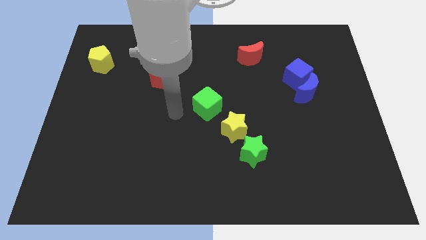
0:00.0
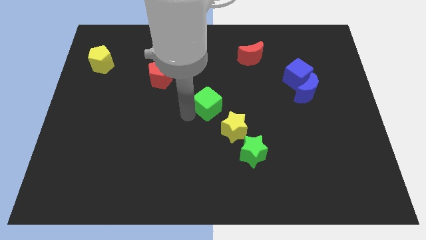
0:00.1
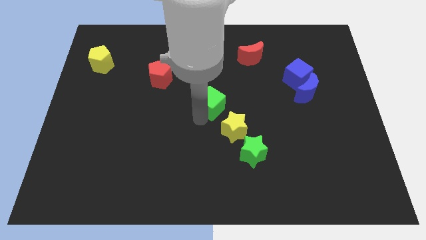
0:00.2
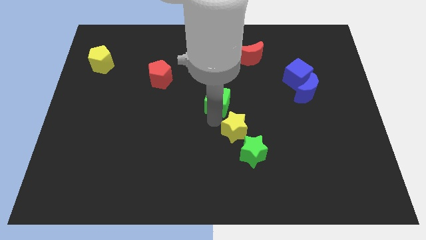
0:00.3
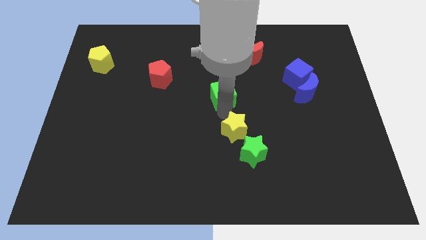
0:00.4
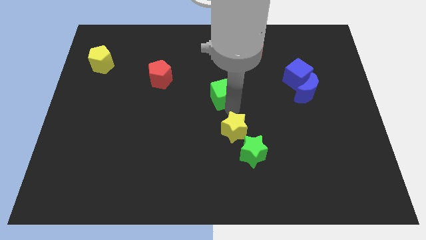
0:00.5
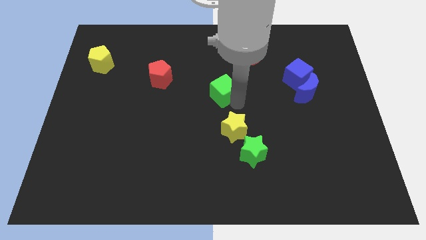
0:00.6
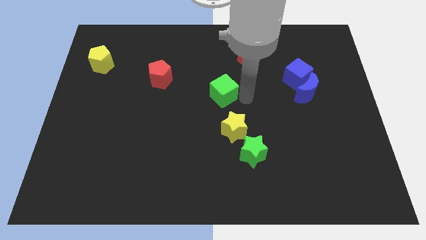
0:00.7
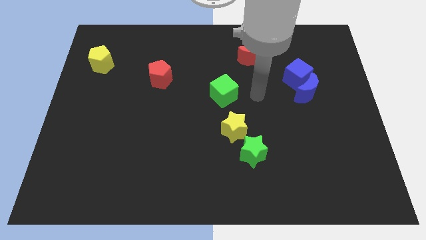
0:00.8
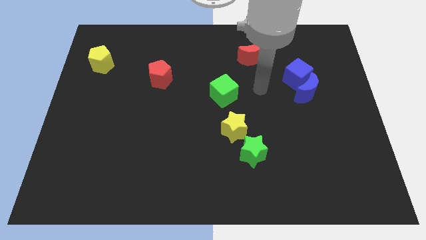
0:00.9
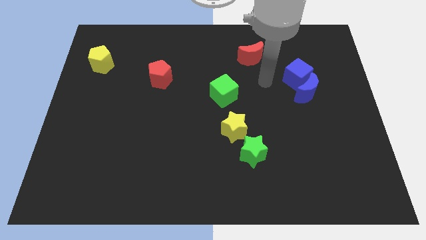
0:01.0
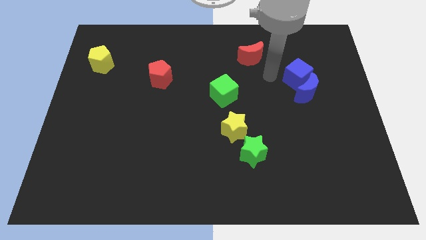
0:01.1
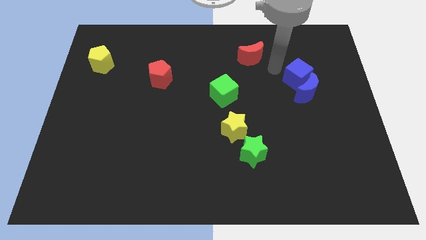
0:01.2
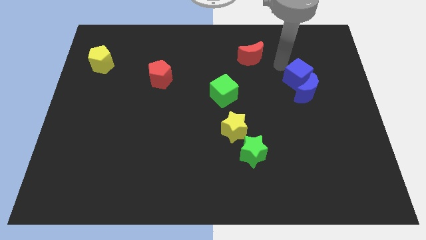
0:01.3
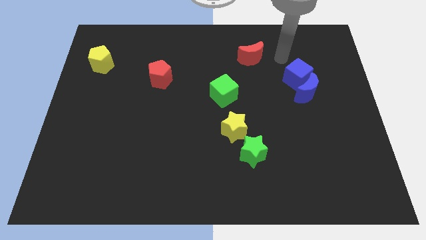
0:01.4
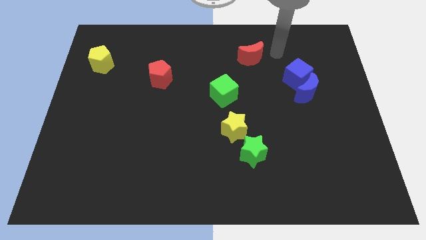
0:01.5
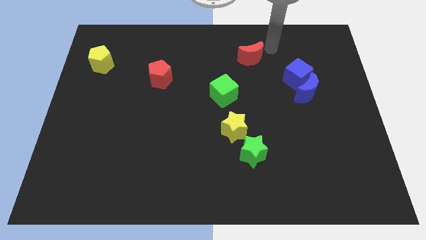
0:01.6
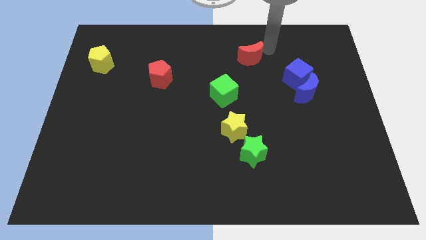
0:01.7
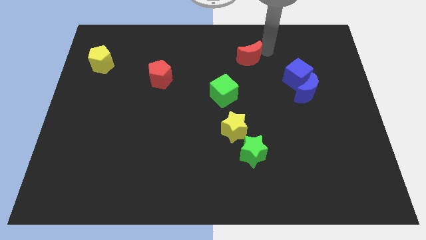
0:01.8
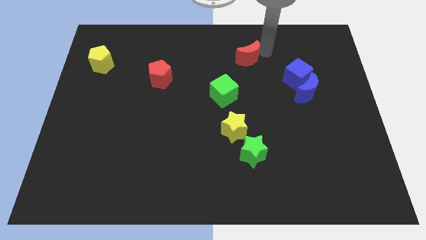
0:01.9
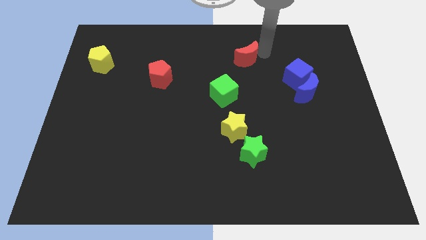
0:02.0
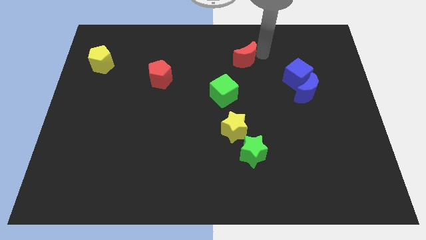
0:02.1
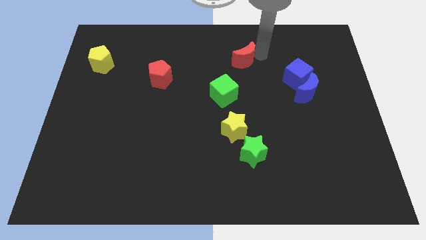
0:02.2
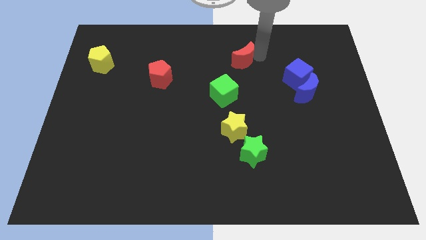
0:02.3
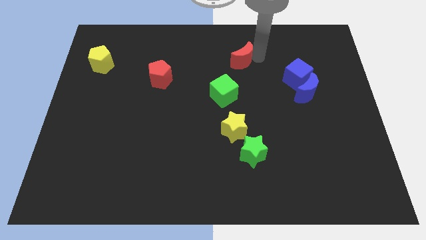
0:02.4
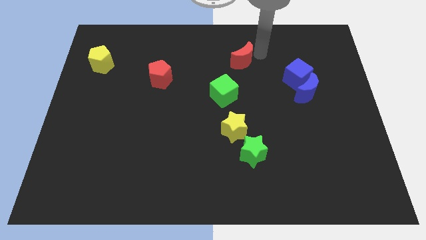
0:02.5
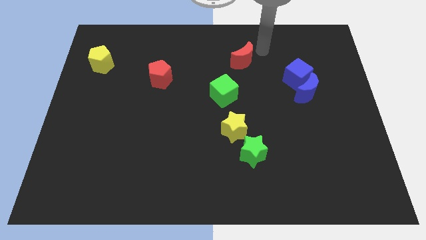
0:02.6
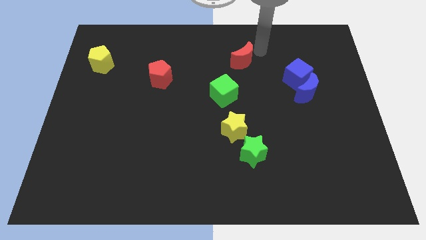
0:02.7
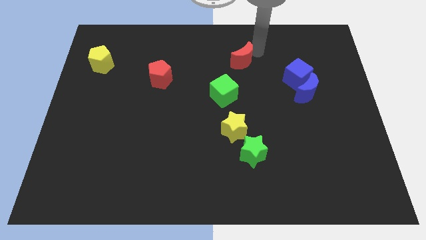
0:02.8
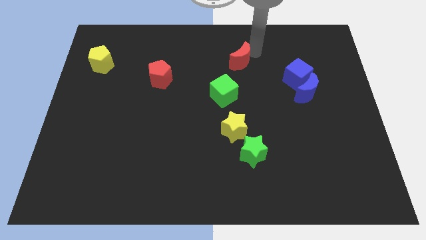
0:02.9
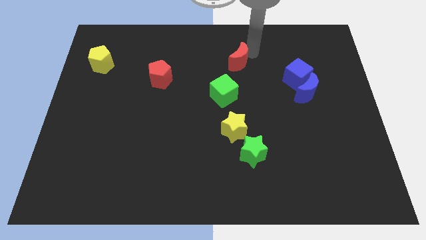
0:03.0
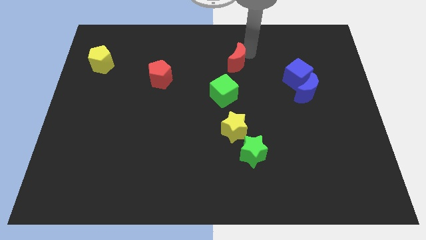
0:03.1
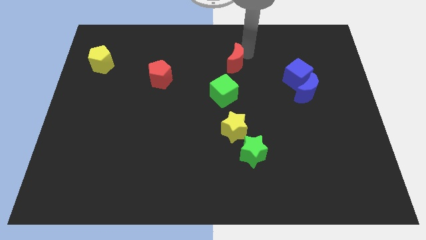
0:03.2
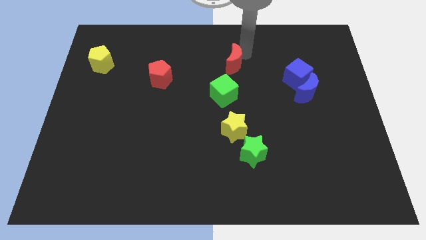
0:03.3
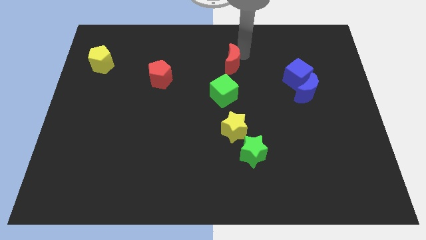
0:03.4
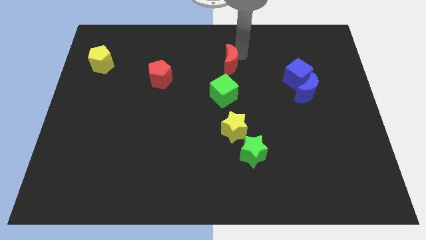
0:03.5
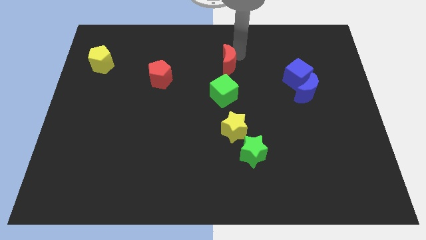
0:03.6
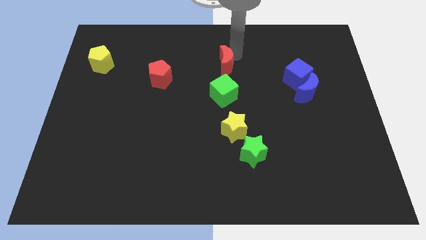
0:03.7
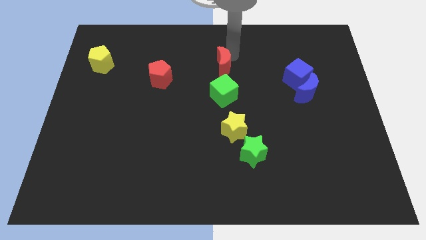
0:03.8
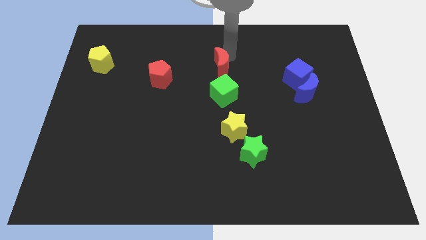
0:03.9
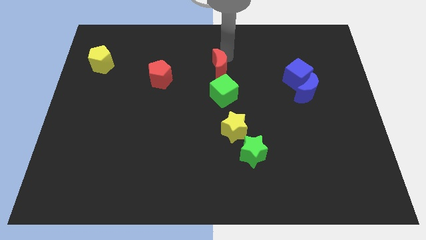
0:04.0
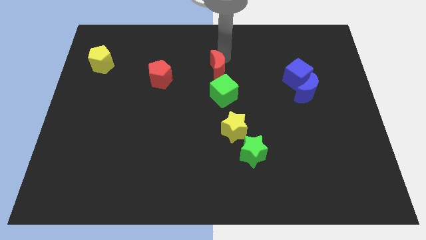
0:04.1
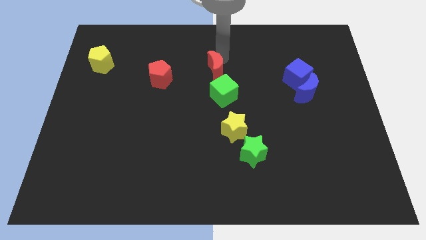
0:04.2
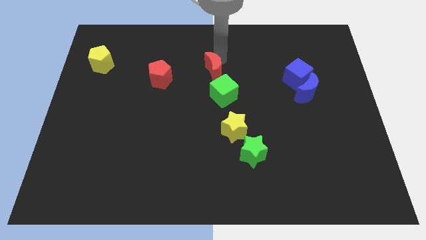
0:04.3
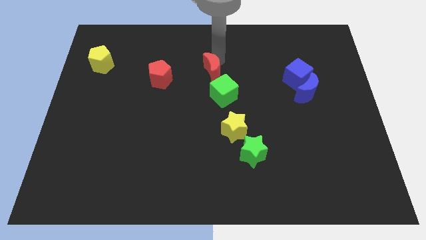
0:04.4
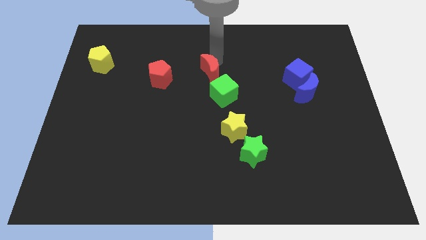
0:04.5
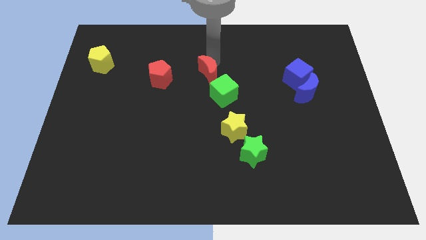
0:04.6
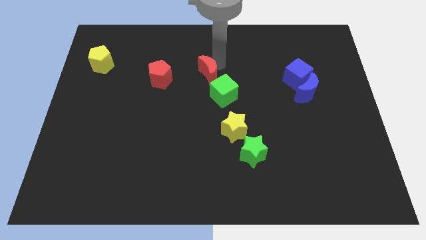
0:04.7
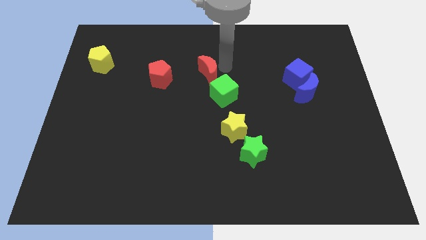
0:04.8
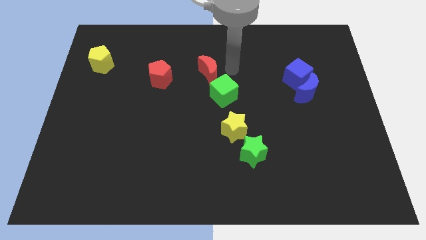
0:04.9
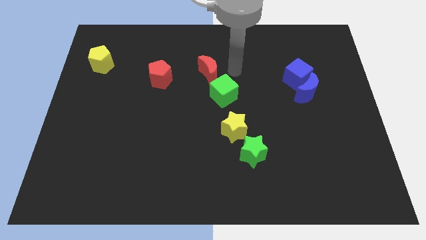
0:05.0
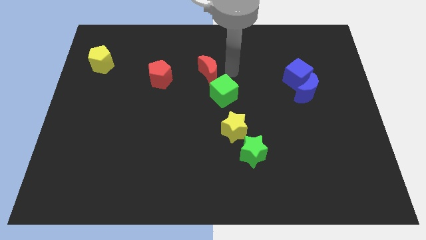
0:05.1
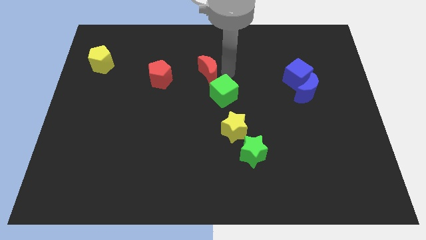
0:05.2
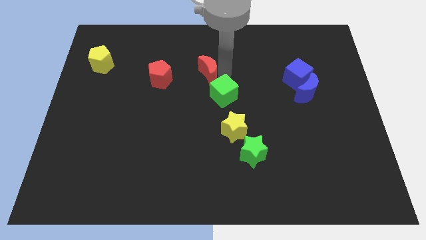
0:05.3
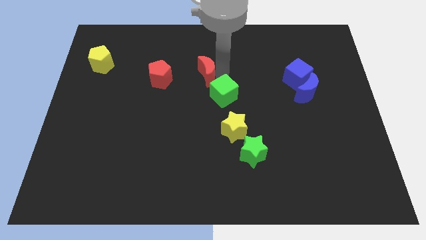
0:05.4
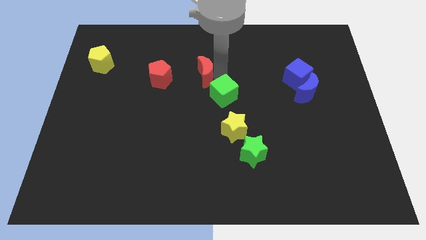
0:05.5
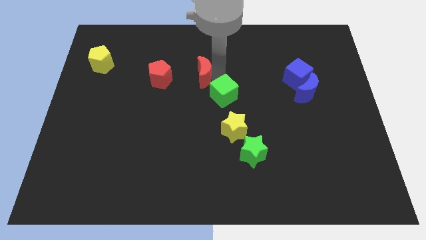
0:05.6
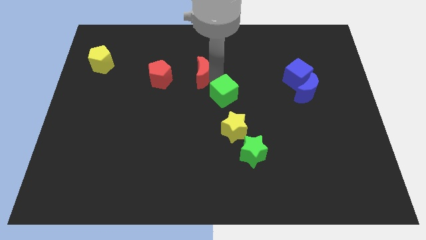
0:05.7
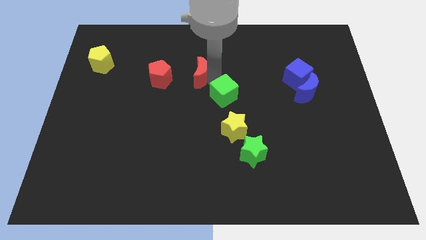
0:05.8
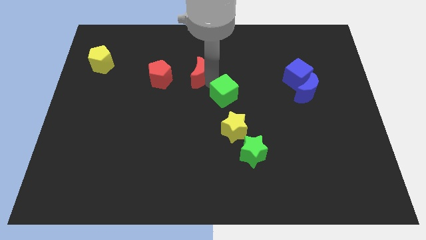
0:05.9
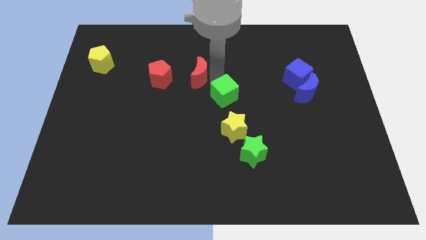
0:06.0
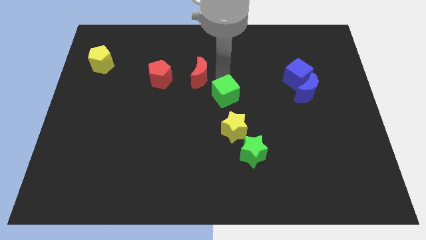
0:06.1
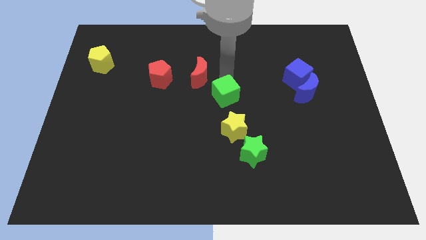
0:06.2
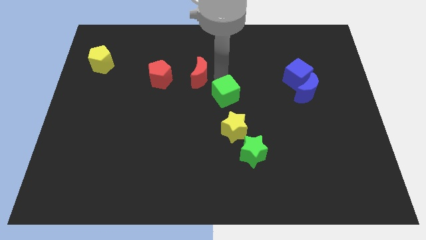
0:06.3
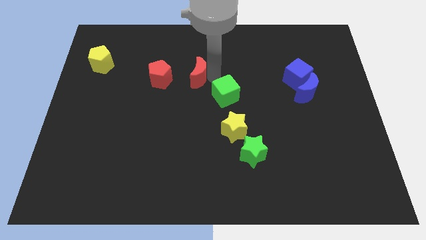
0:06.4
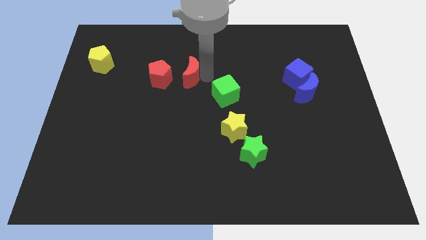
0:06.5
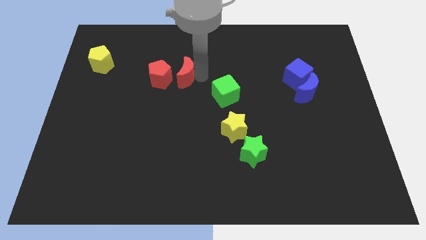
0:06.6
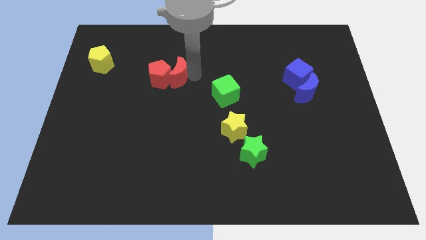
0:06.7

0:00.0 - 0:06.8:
put the red moon to the red pentagon

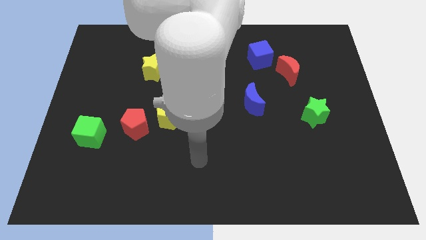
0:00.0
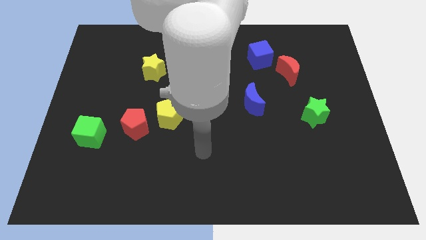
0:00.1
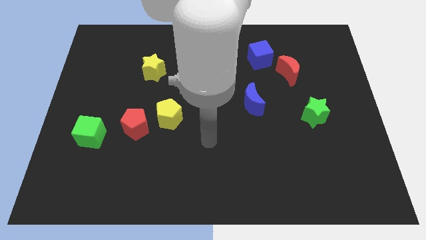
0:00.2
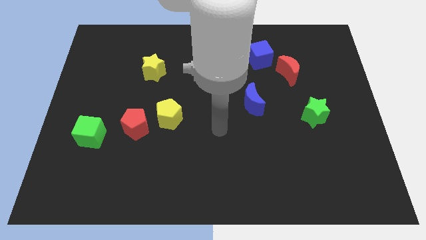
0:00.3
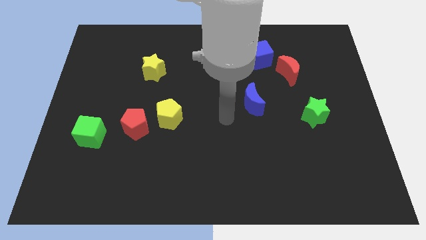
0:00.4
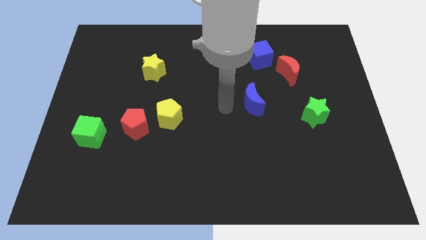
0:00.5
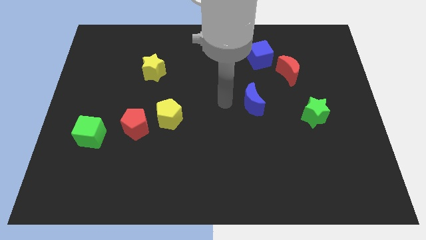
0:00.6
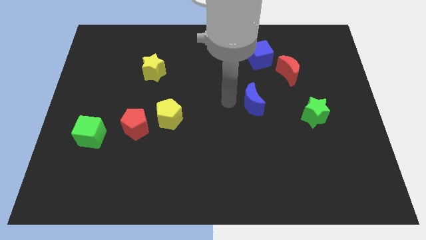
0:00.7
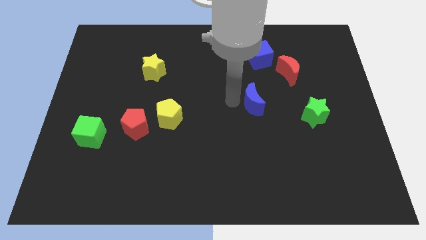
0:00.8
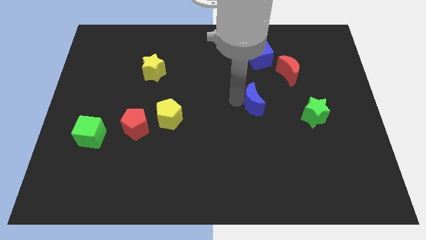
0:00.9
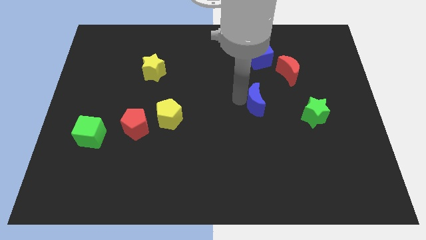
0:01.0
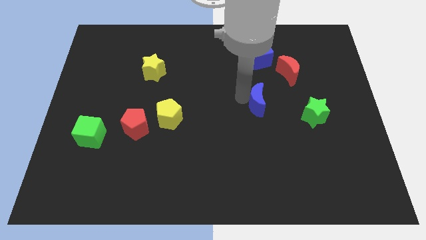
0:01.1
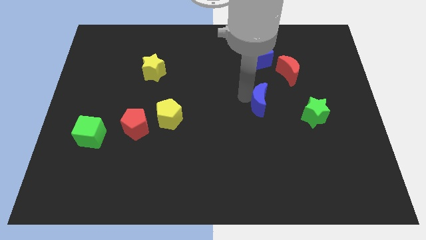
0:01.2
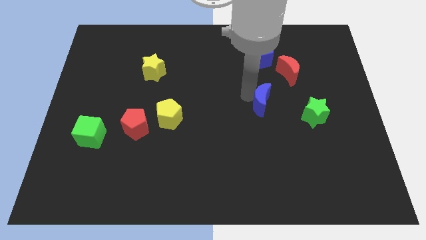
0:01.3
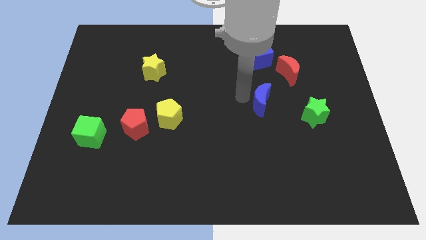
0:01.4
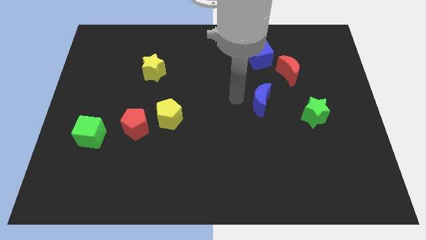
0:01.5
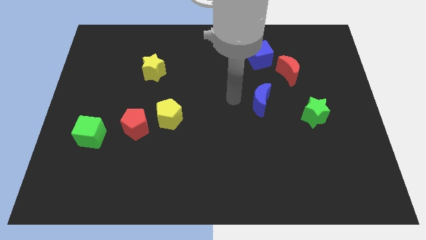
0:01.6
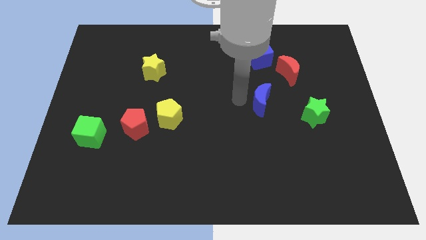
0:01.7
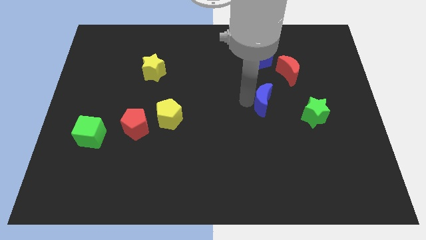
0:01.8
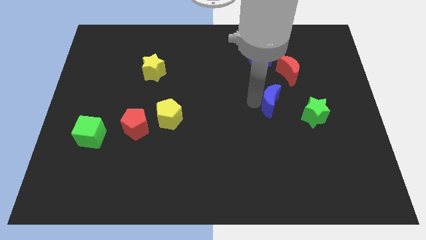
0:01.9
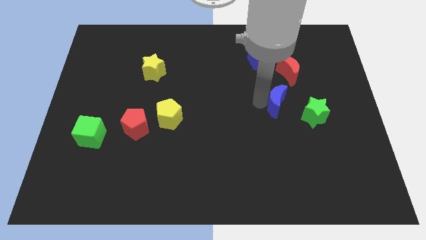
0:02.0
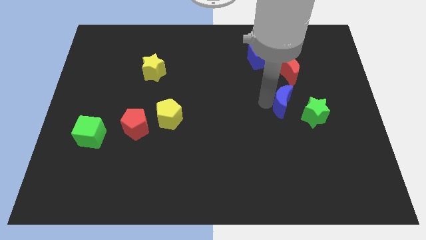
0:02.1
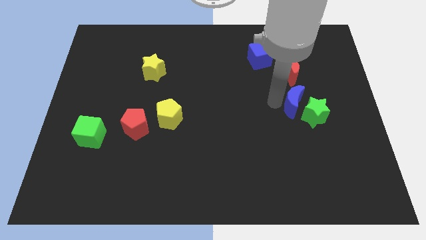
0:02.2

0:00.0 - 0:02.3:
push the blue moon close to the green star
